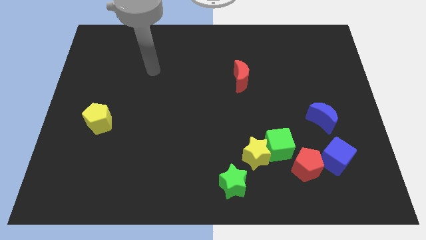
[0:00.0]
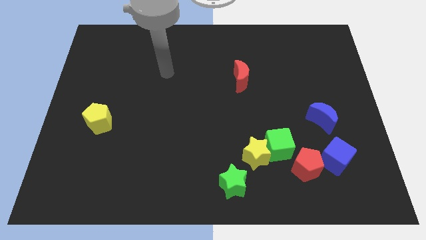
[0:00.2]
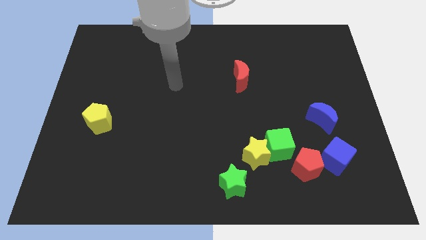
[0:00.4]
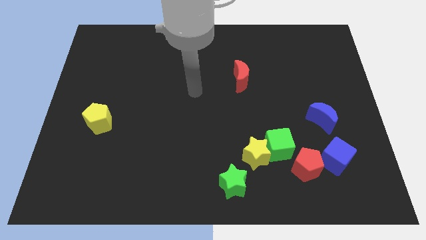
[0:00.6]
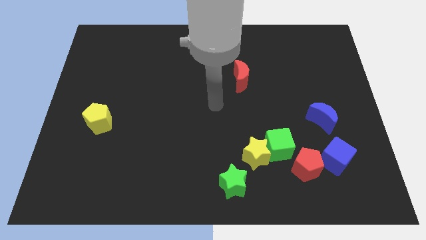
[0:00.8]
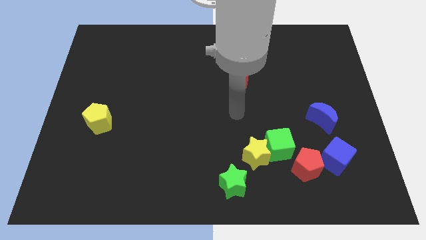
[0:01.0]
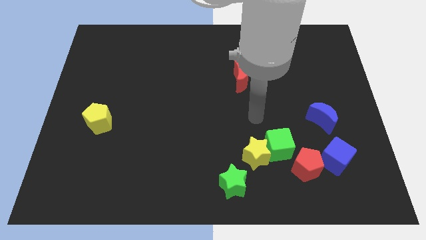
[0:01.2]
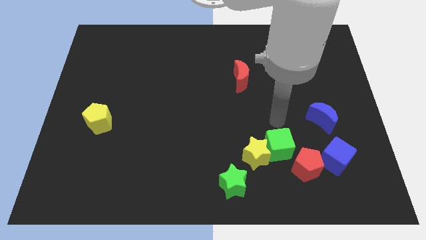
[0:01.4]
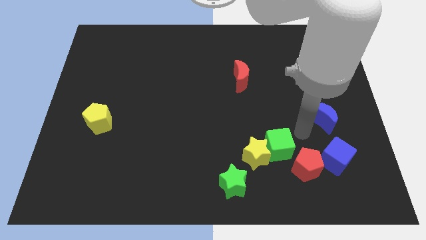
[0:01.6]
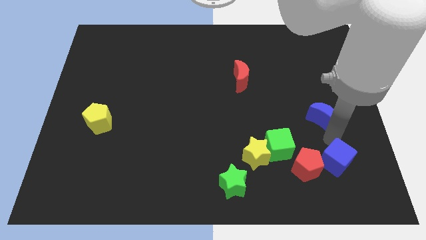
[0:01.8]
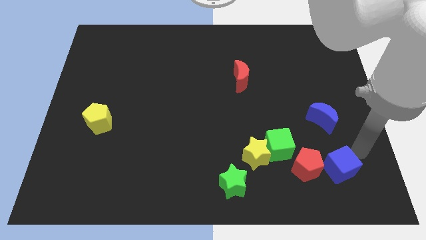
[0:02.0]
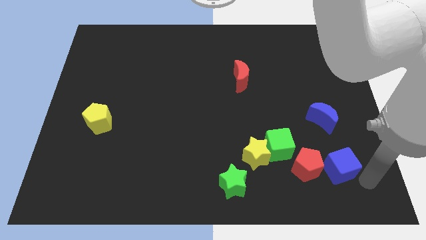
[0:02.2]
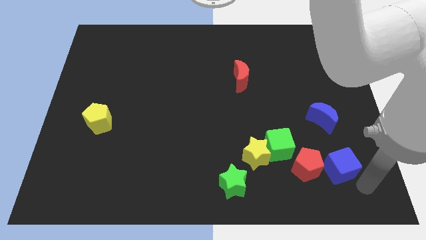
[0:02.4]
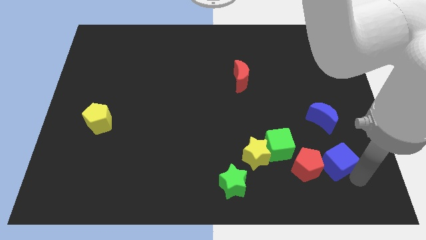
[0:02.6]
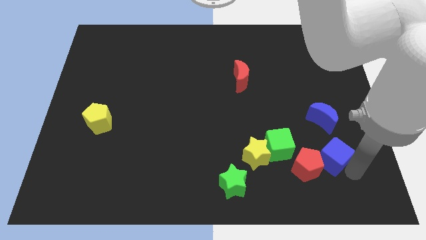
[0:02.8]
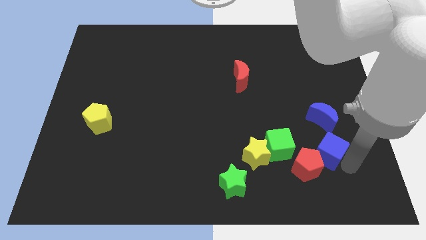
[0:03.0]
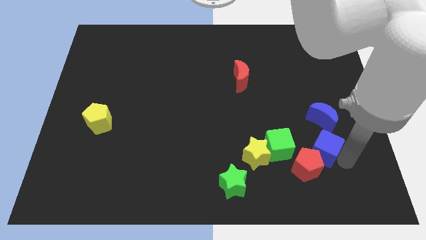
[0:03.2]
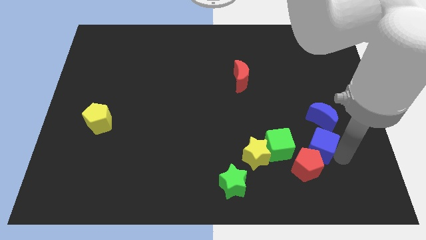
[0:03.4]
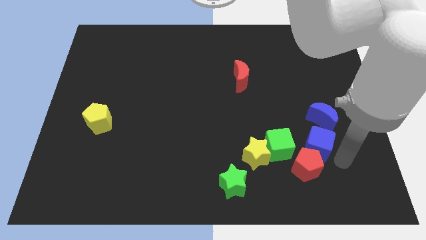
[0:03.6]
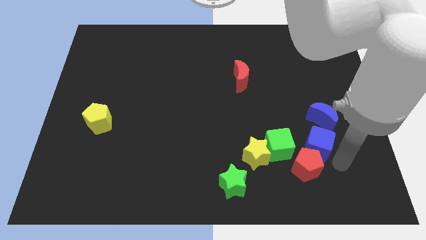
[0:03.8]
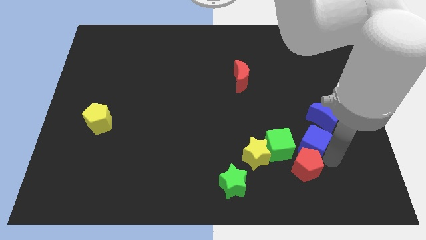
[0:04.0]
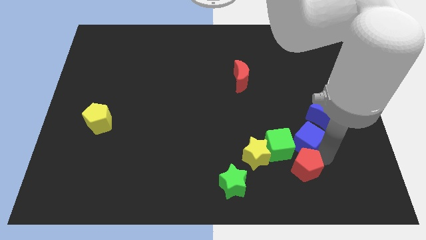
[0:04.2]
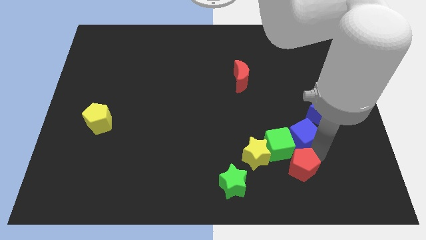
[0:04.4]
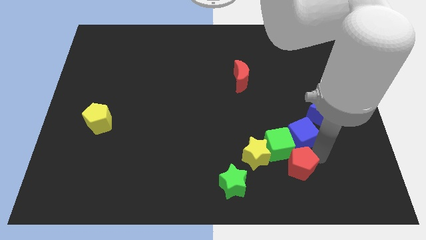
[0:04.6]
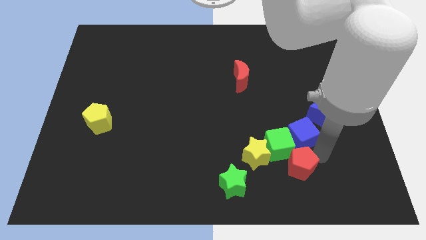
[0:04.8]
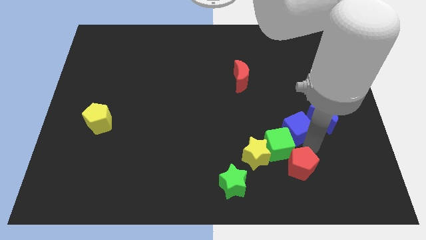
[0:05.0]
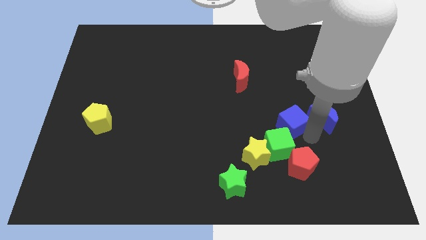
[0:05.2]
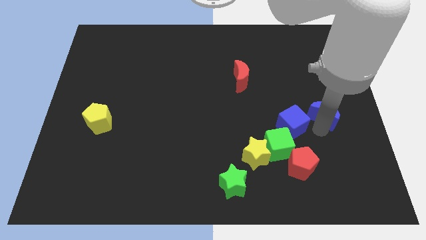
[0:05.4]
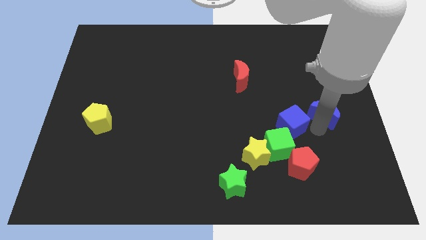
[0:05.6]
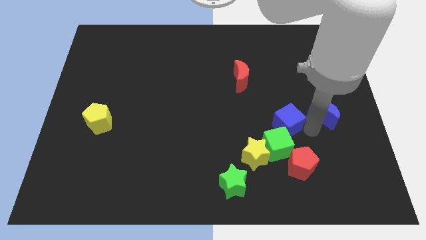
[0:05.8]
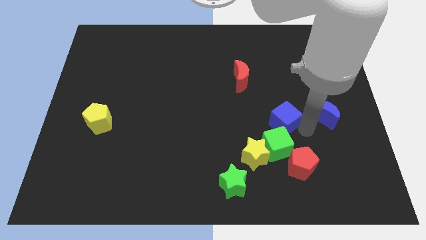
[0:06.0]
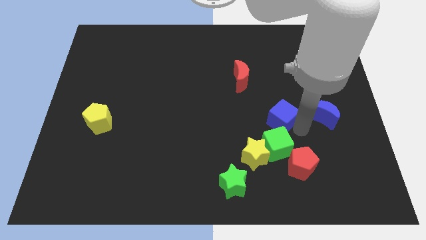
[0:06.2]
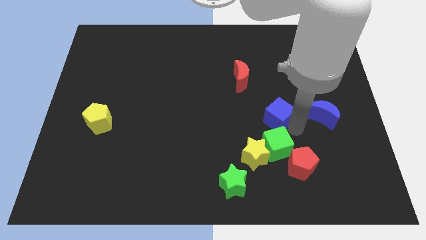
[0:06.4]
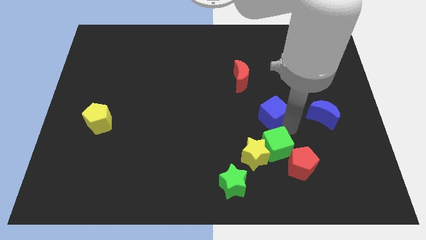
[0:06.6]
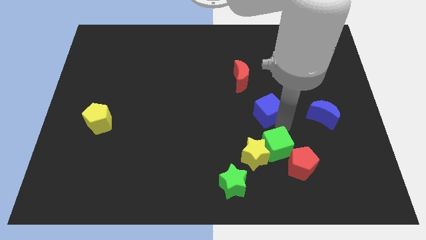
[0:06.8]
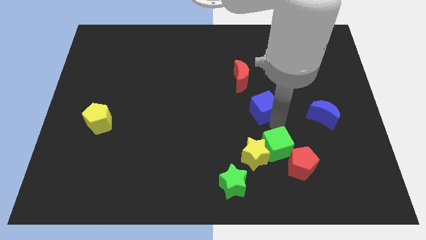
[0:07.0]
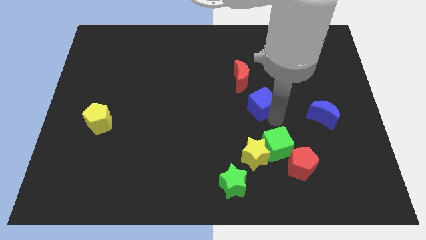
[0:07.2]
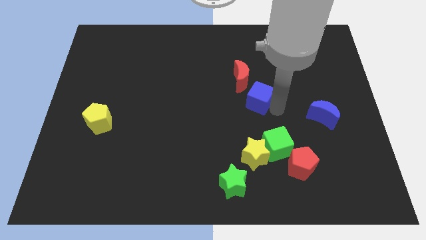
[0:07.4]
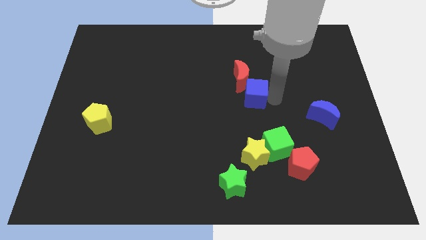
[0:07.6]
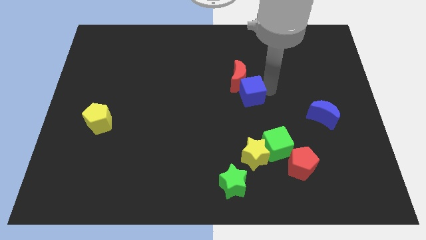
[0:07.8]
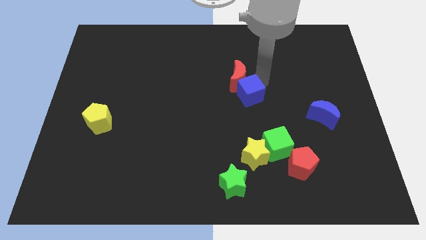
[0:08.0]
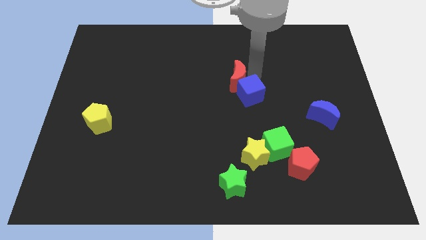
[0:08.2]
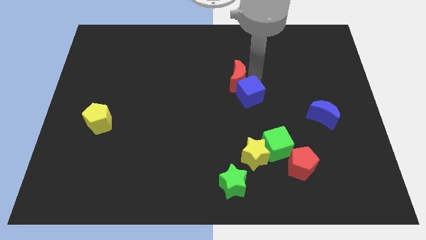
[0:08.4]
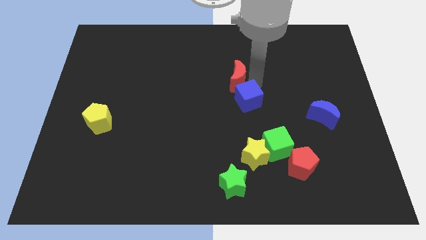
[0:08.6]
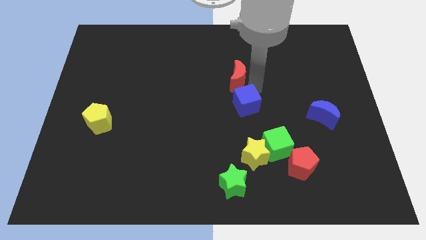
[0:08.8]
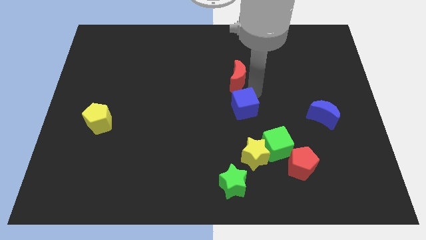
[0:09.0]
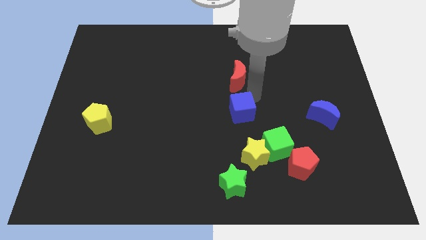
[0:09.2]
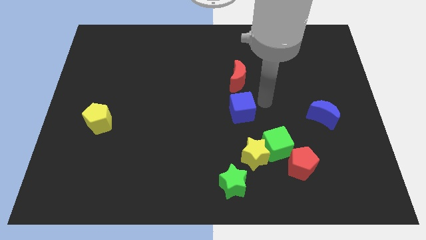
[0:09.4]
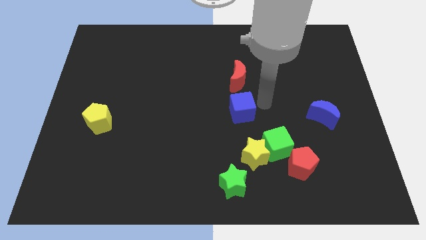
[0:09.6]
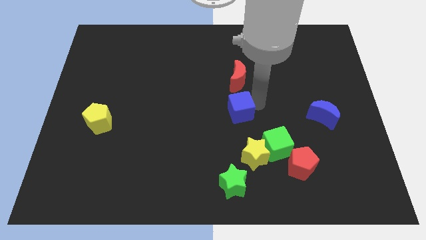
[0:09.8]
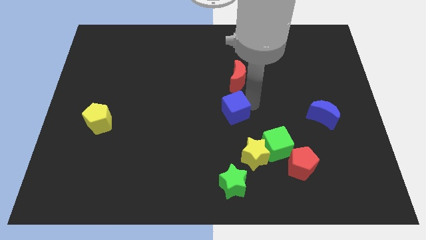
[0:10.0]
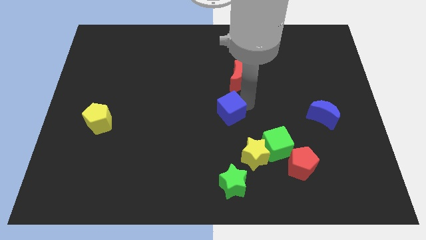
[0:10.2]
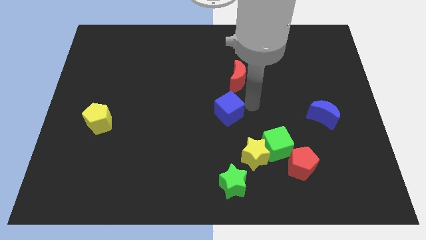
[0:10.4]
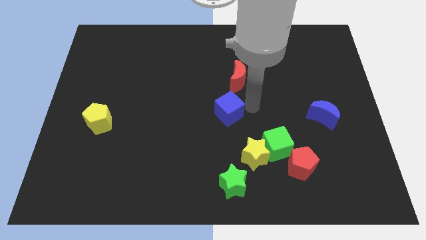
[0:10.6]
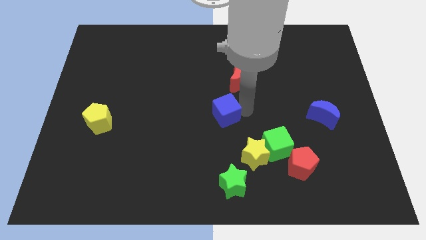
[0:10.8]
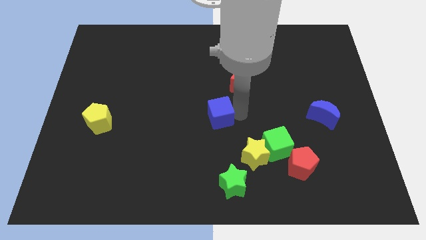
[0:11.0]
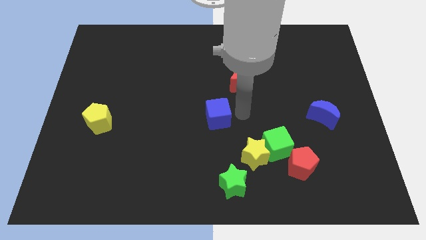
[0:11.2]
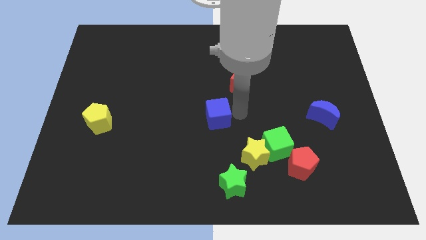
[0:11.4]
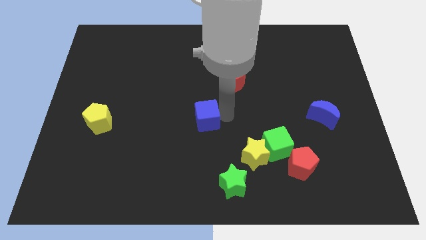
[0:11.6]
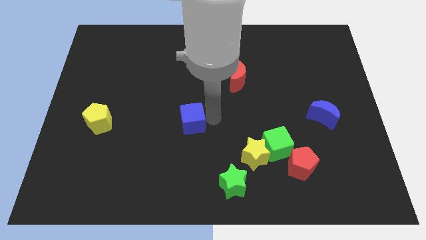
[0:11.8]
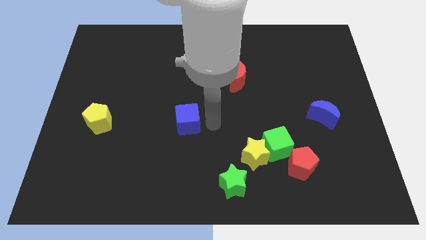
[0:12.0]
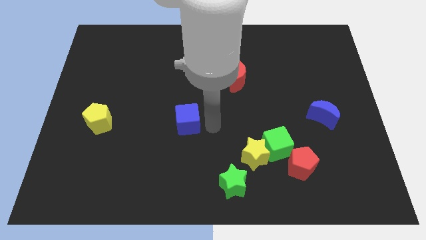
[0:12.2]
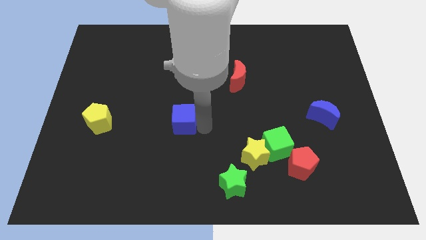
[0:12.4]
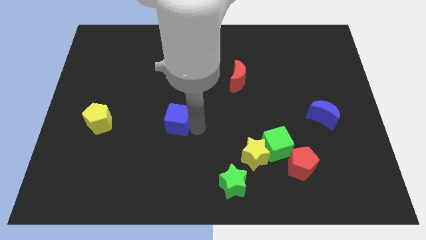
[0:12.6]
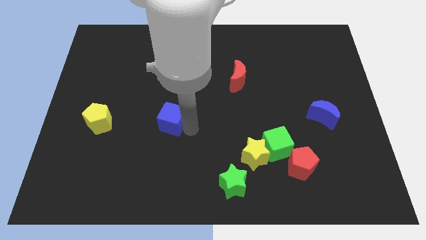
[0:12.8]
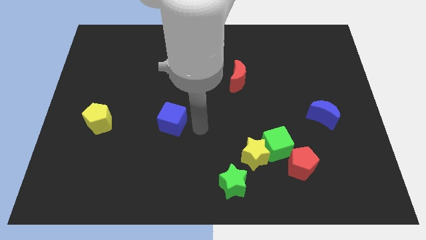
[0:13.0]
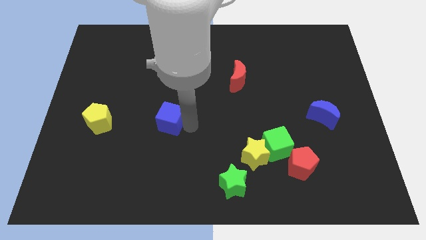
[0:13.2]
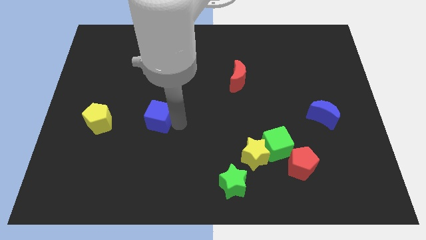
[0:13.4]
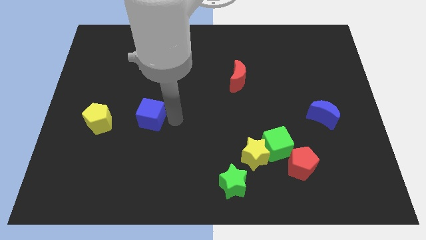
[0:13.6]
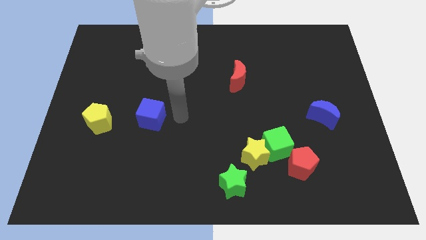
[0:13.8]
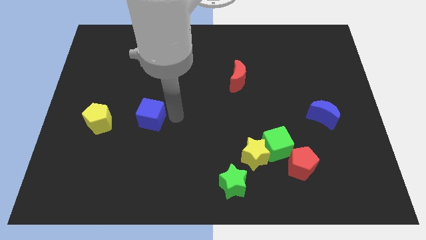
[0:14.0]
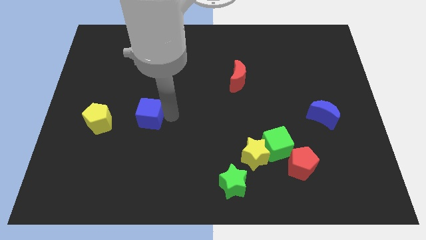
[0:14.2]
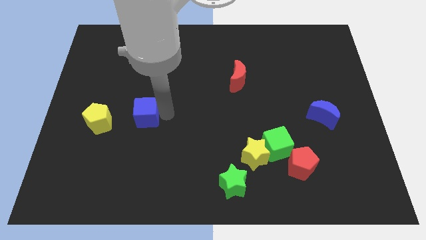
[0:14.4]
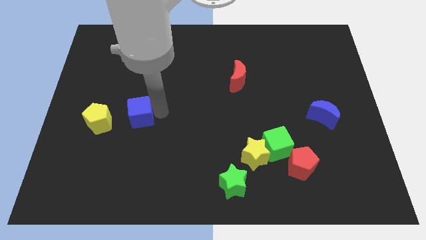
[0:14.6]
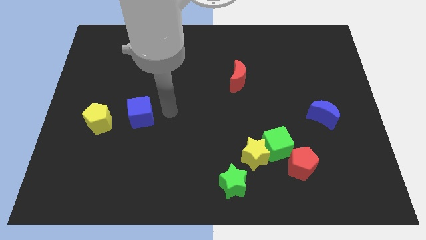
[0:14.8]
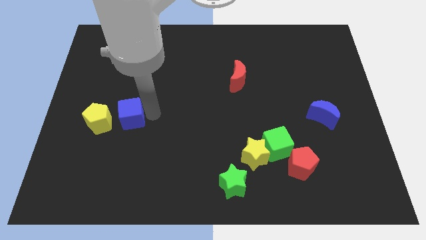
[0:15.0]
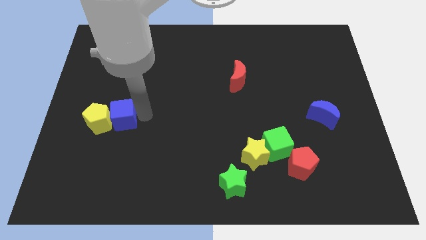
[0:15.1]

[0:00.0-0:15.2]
slide the blue cube towards the yellow pentagon
